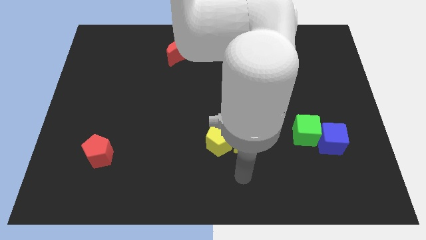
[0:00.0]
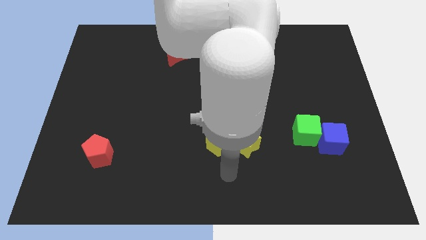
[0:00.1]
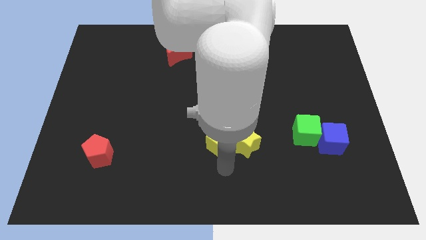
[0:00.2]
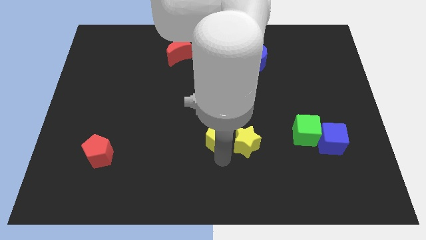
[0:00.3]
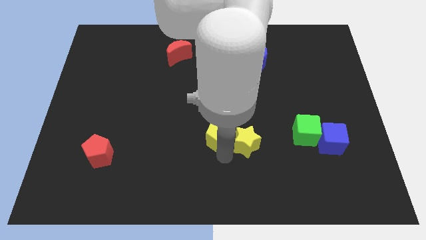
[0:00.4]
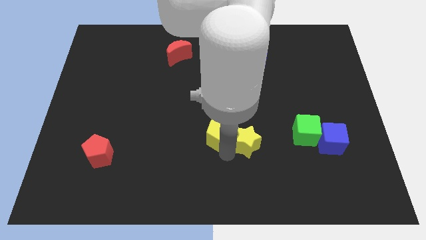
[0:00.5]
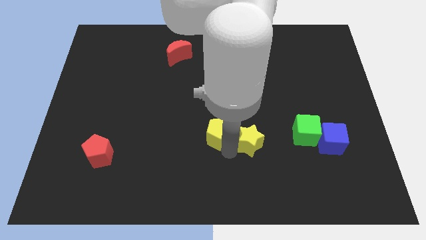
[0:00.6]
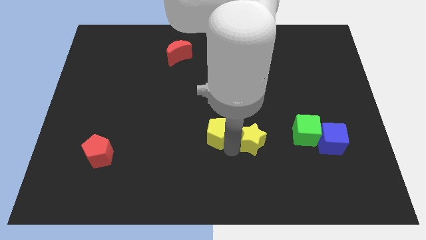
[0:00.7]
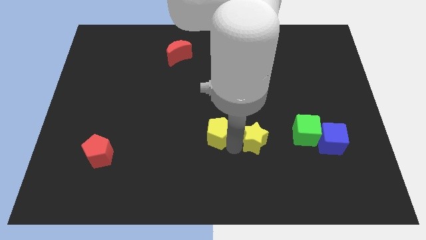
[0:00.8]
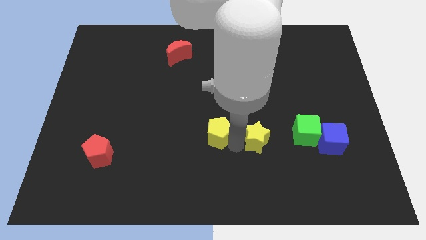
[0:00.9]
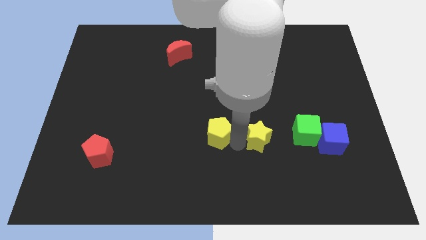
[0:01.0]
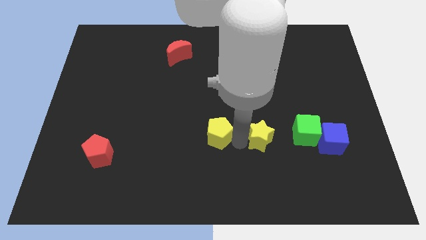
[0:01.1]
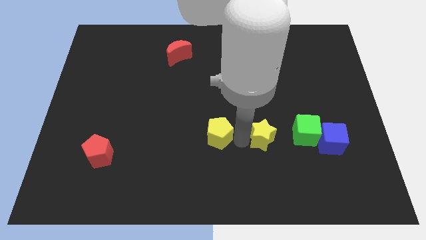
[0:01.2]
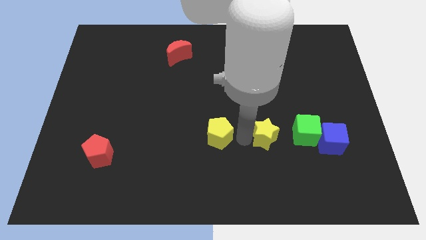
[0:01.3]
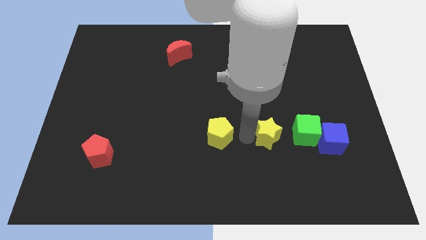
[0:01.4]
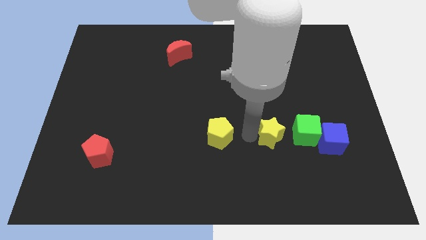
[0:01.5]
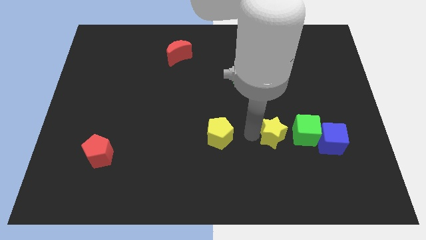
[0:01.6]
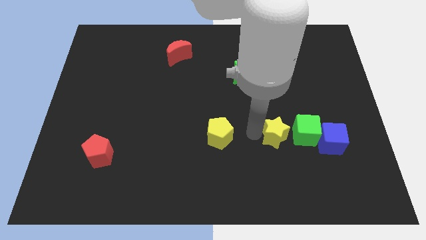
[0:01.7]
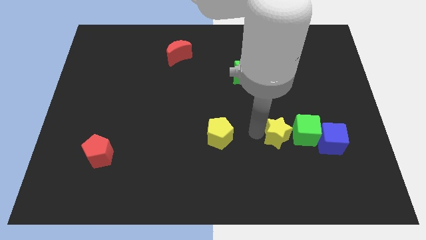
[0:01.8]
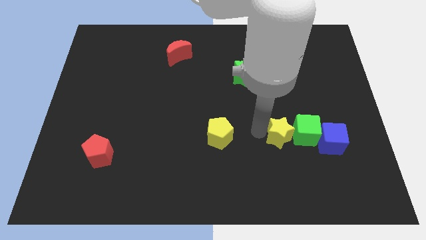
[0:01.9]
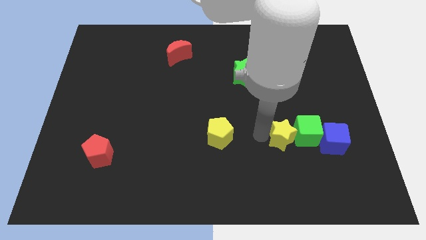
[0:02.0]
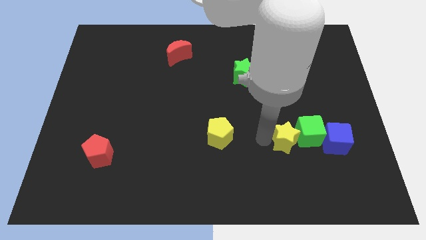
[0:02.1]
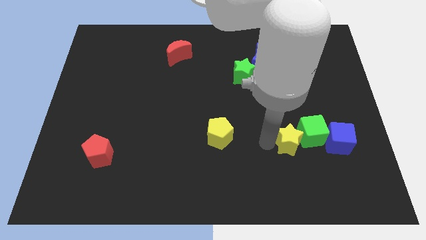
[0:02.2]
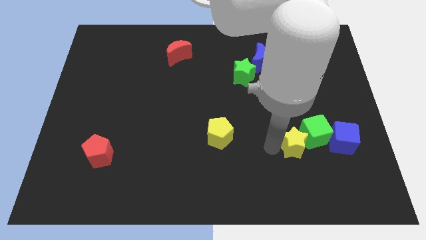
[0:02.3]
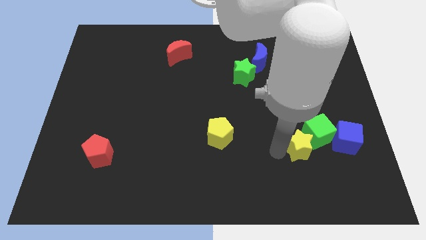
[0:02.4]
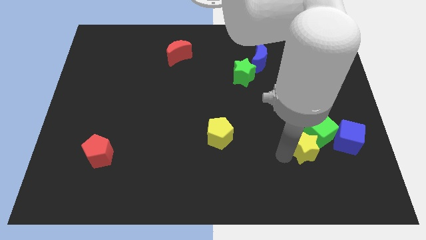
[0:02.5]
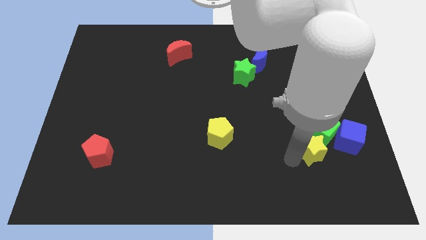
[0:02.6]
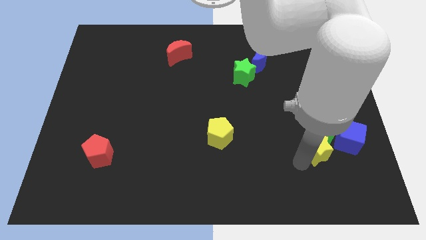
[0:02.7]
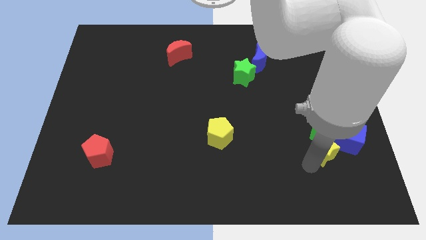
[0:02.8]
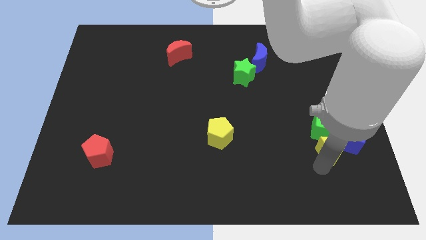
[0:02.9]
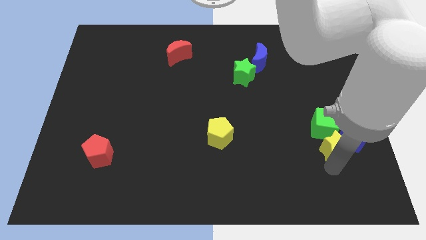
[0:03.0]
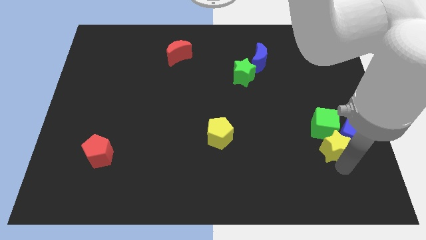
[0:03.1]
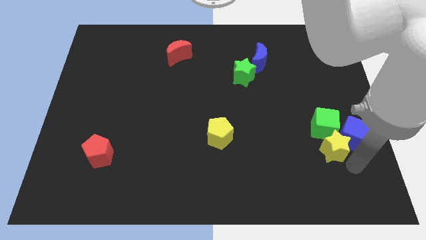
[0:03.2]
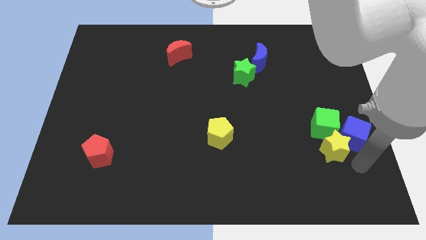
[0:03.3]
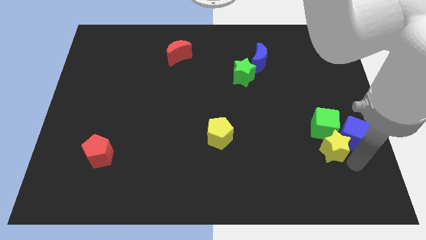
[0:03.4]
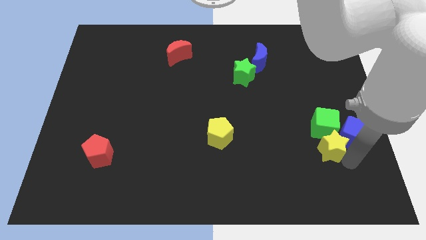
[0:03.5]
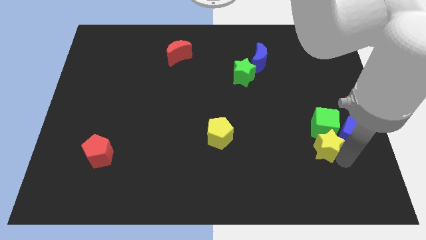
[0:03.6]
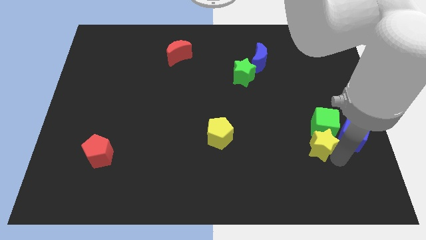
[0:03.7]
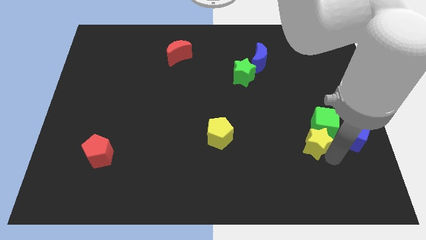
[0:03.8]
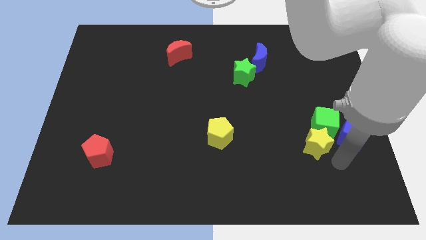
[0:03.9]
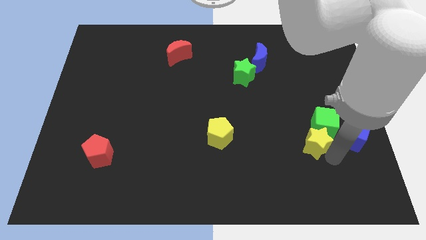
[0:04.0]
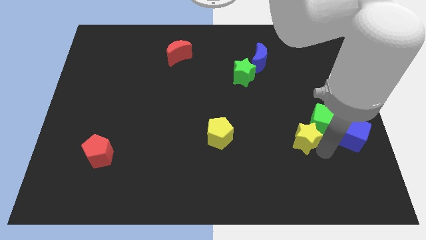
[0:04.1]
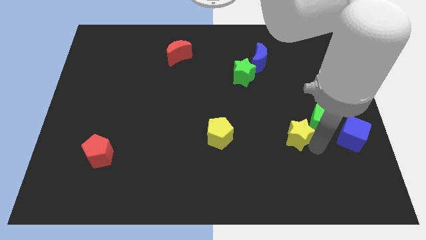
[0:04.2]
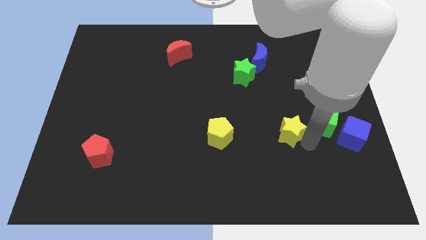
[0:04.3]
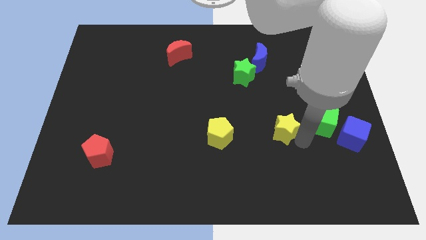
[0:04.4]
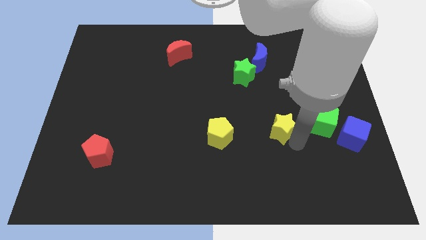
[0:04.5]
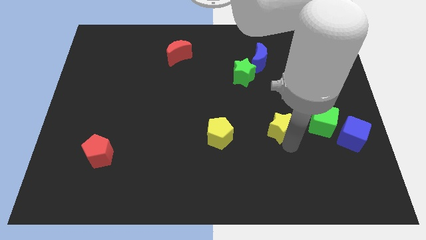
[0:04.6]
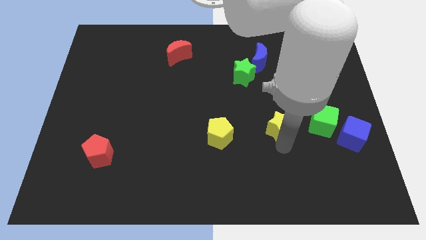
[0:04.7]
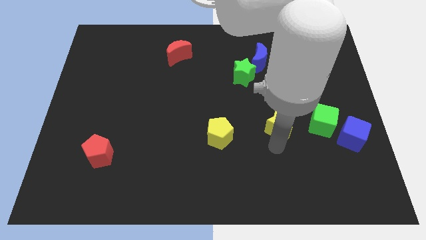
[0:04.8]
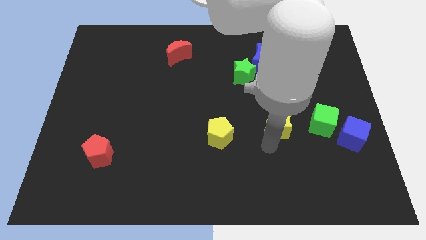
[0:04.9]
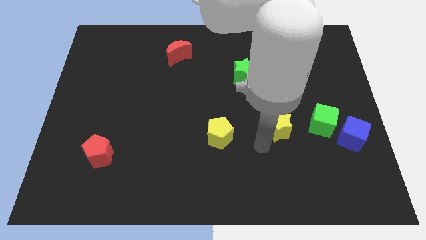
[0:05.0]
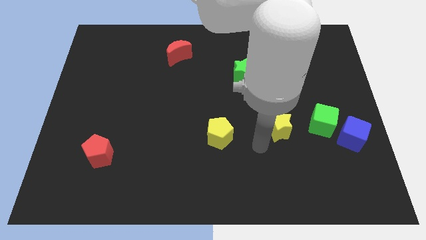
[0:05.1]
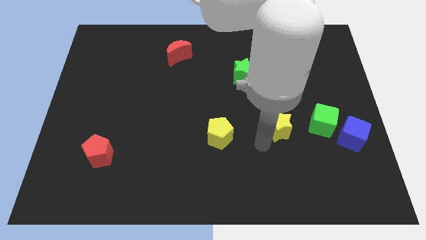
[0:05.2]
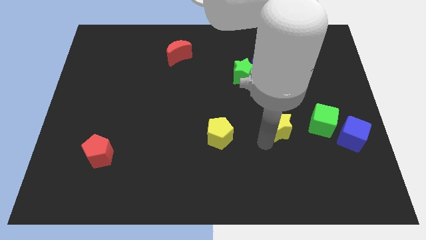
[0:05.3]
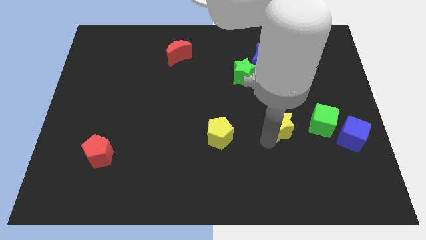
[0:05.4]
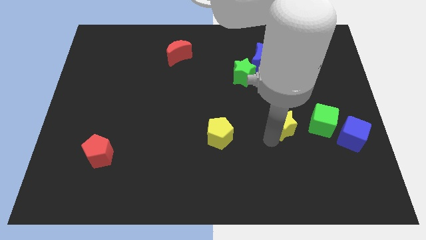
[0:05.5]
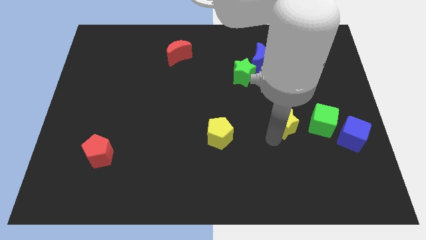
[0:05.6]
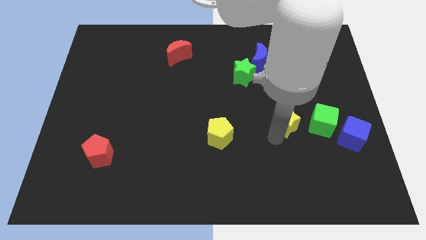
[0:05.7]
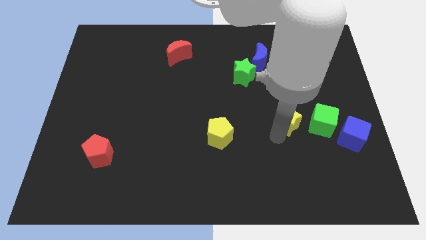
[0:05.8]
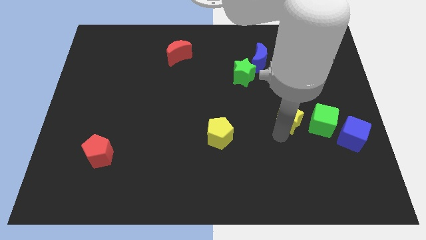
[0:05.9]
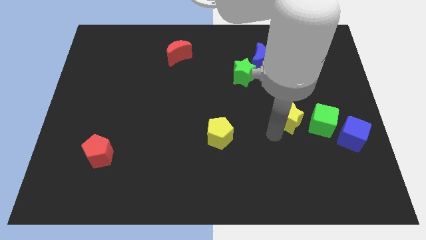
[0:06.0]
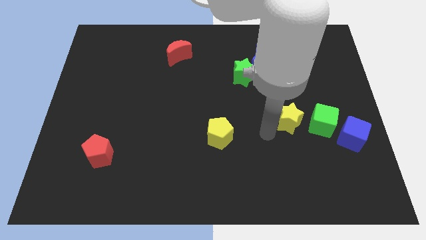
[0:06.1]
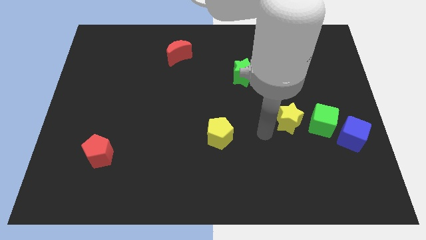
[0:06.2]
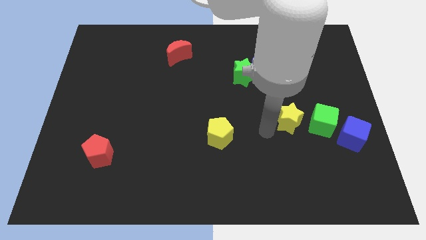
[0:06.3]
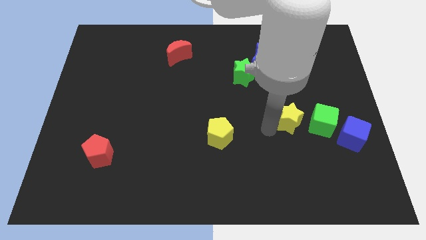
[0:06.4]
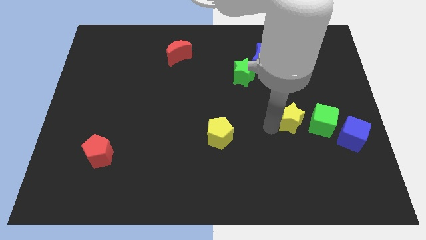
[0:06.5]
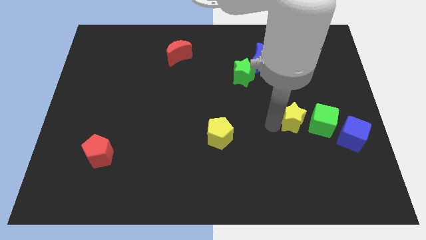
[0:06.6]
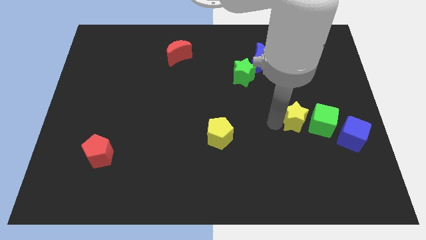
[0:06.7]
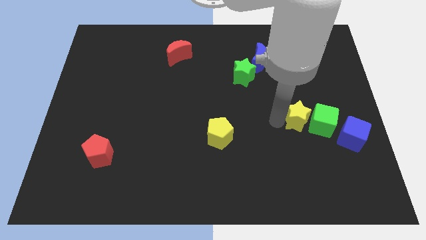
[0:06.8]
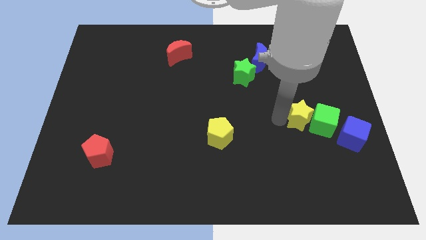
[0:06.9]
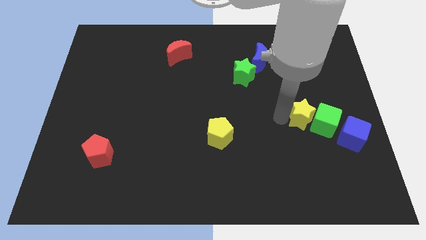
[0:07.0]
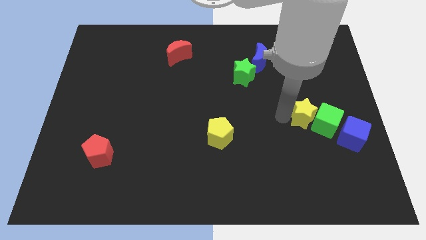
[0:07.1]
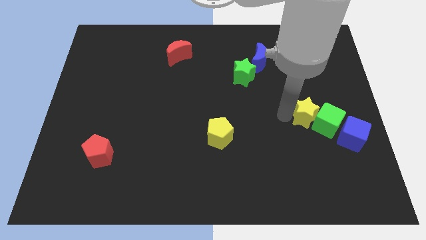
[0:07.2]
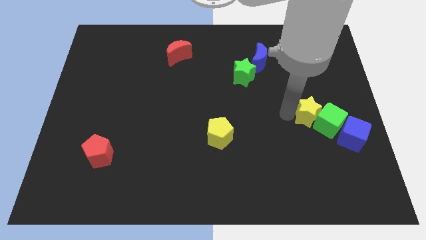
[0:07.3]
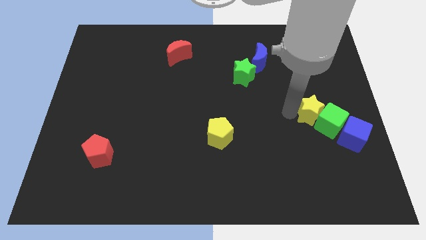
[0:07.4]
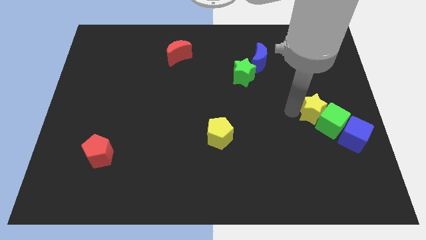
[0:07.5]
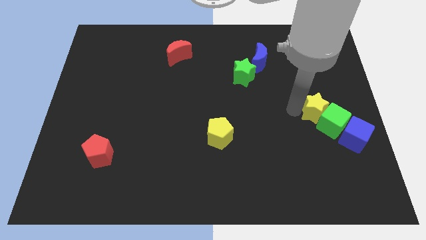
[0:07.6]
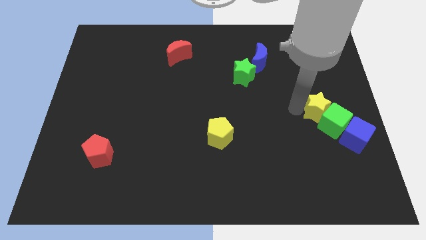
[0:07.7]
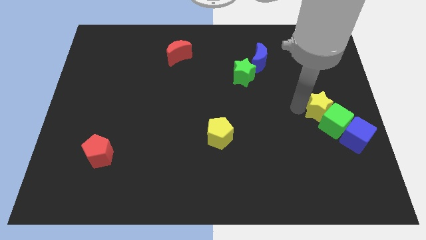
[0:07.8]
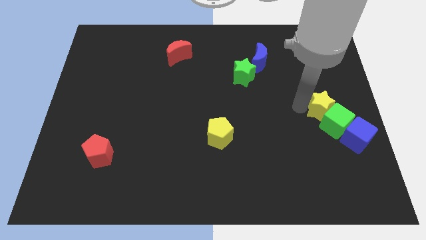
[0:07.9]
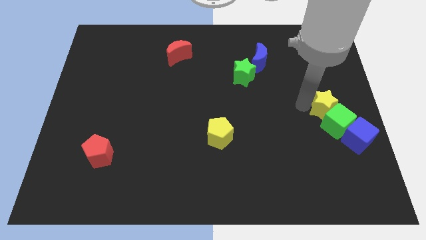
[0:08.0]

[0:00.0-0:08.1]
put the yellow star to the right side of the board
